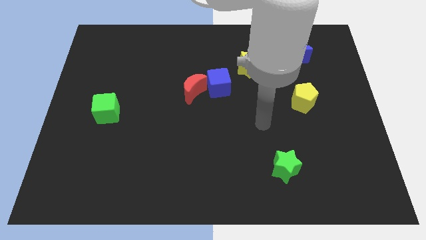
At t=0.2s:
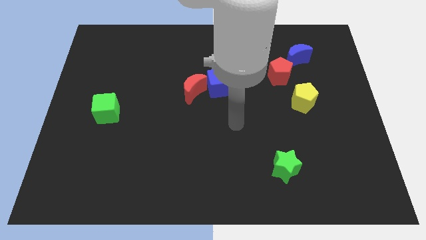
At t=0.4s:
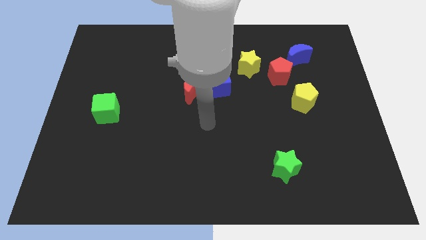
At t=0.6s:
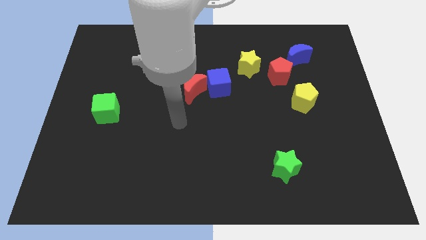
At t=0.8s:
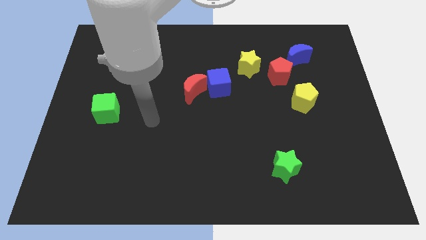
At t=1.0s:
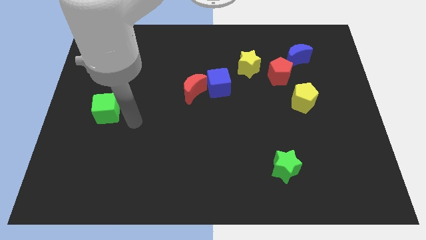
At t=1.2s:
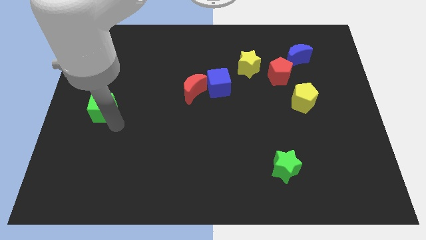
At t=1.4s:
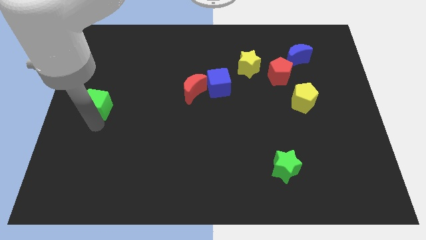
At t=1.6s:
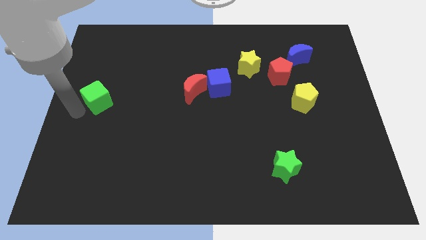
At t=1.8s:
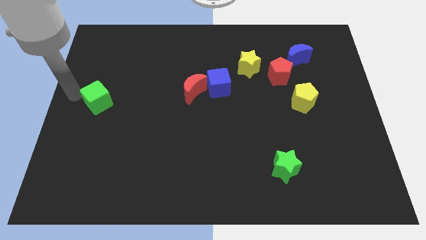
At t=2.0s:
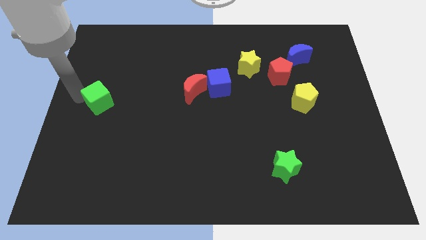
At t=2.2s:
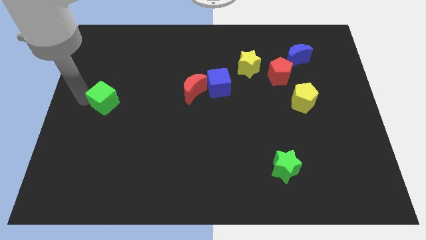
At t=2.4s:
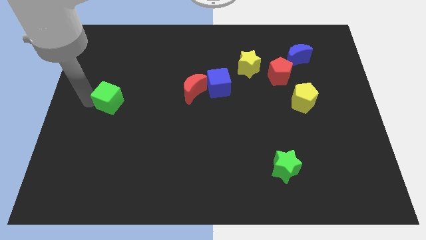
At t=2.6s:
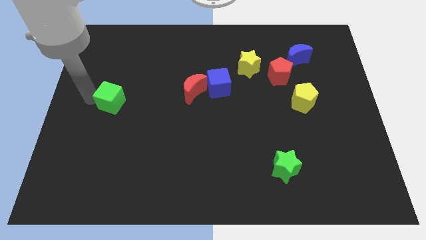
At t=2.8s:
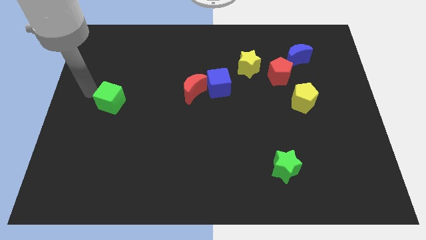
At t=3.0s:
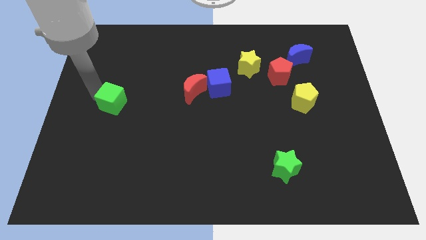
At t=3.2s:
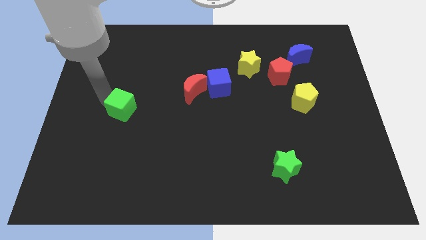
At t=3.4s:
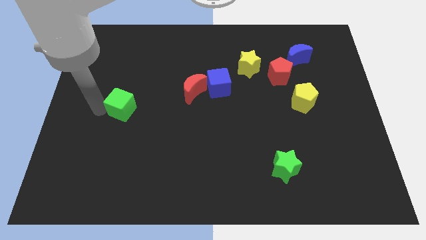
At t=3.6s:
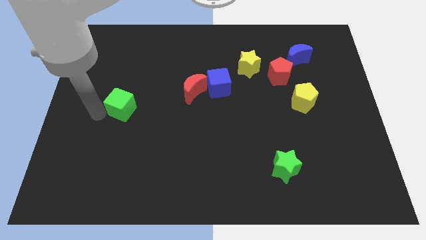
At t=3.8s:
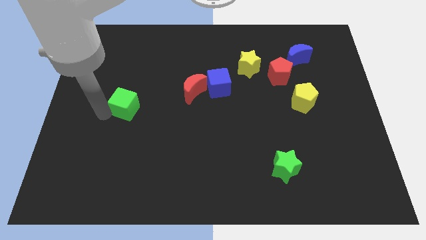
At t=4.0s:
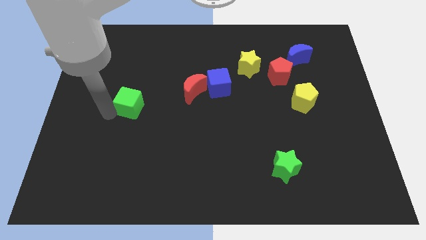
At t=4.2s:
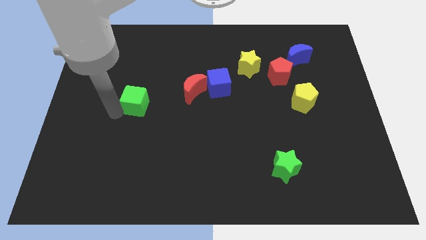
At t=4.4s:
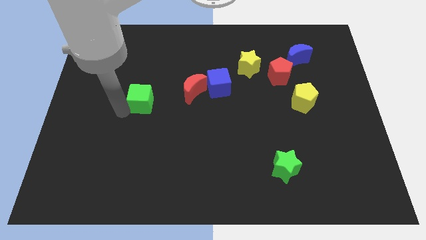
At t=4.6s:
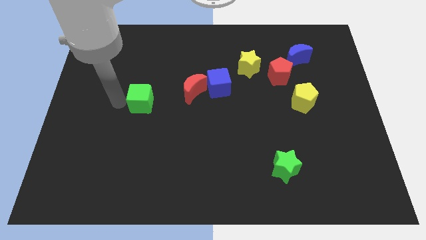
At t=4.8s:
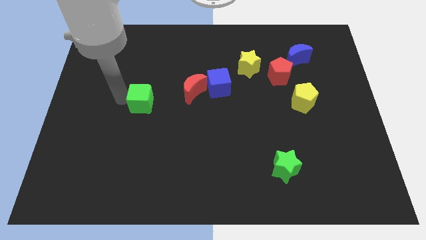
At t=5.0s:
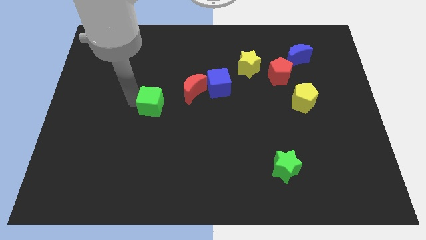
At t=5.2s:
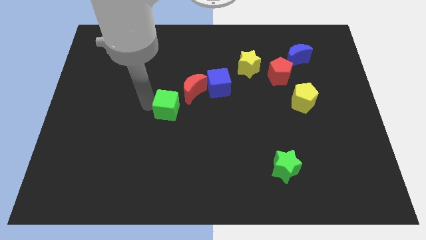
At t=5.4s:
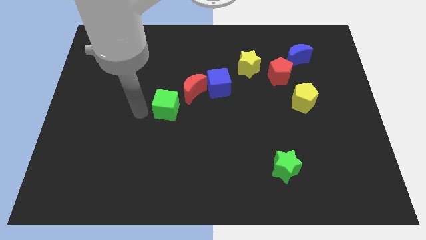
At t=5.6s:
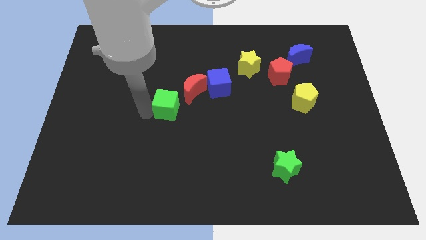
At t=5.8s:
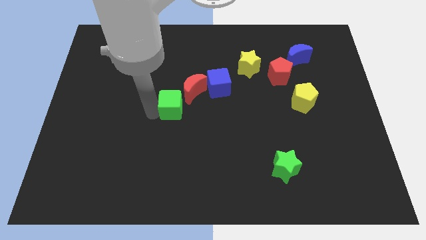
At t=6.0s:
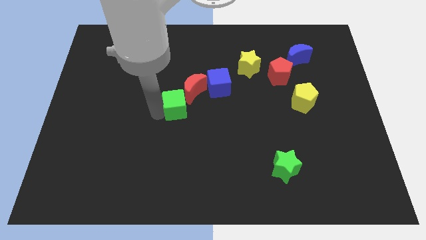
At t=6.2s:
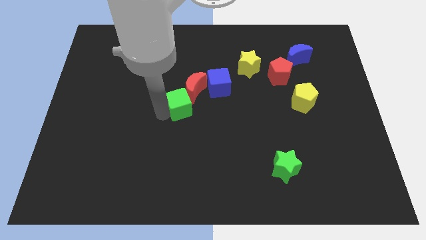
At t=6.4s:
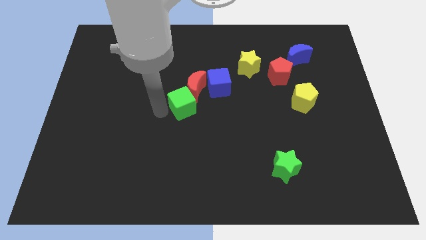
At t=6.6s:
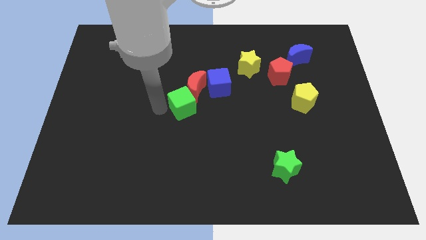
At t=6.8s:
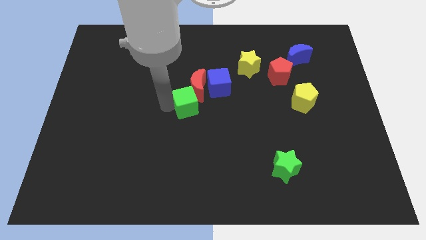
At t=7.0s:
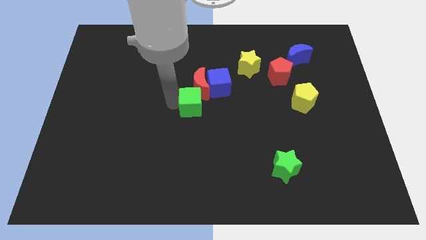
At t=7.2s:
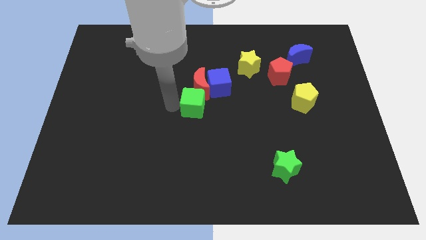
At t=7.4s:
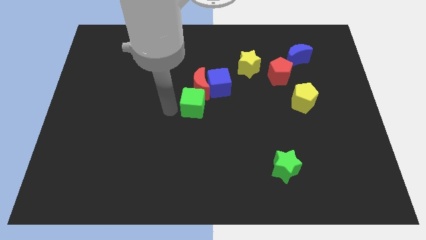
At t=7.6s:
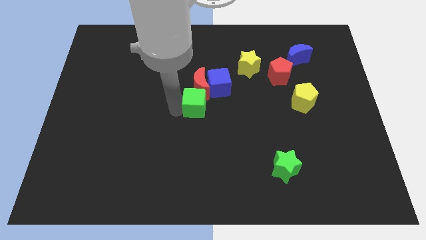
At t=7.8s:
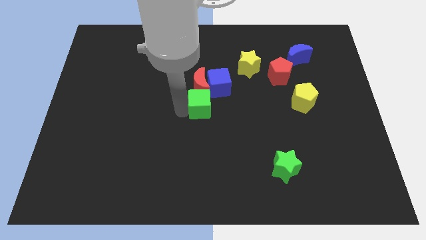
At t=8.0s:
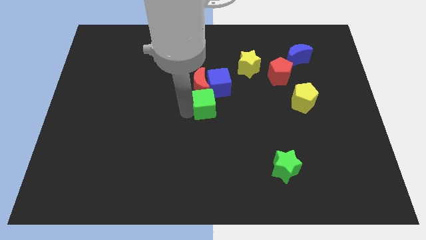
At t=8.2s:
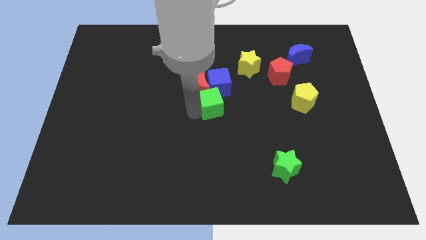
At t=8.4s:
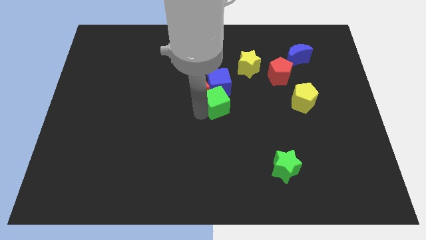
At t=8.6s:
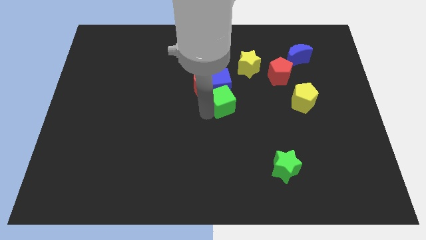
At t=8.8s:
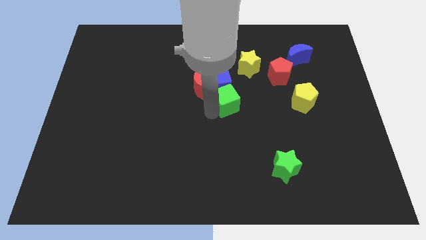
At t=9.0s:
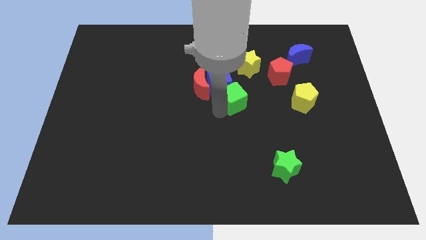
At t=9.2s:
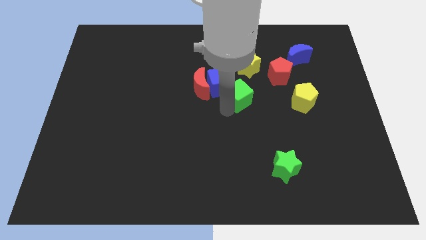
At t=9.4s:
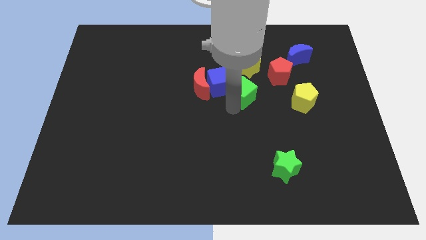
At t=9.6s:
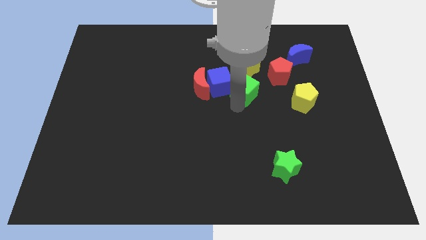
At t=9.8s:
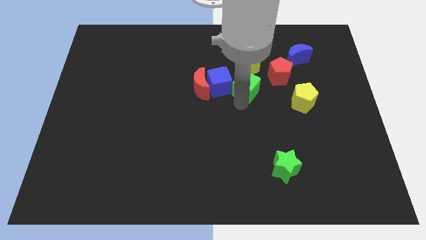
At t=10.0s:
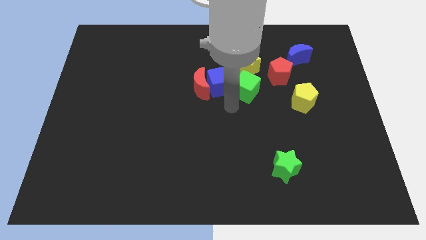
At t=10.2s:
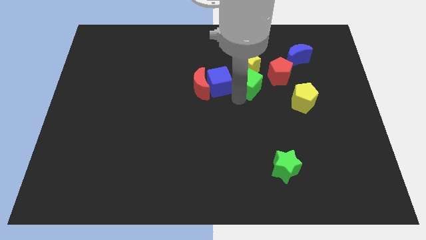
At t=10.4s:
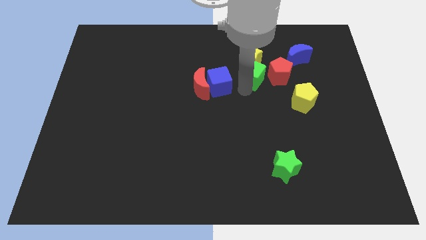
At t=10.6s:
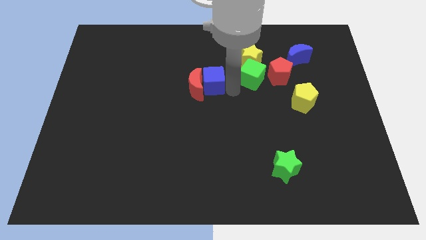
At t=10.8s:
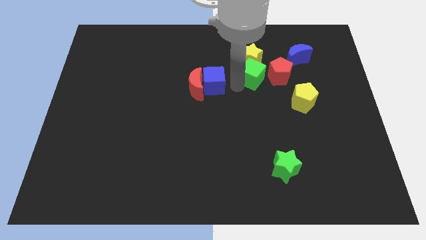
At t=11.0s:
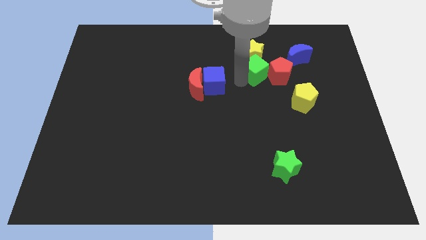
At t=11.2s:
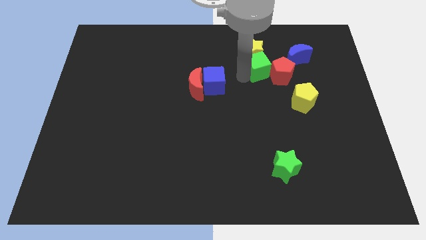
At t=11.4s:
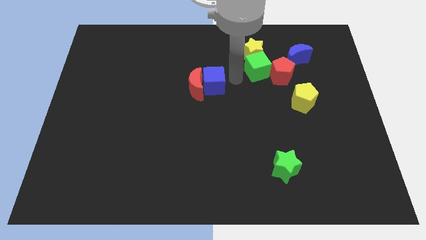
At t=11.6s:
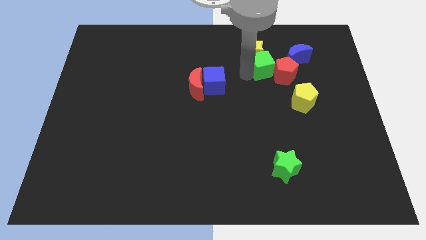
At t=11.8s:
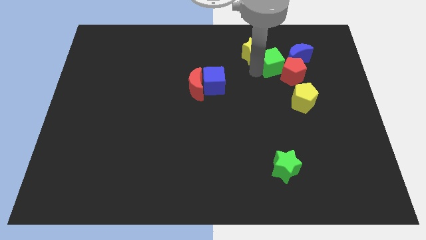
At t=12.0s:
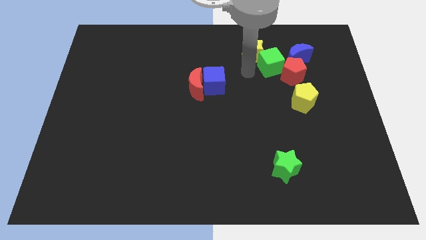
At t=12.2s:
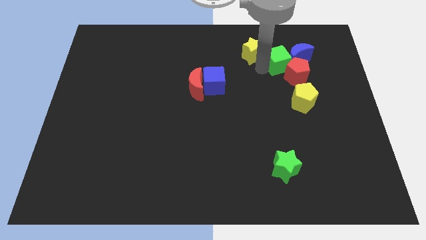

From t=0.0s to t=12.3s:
put the green cube towards the blue moon

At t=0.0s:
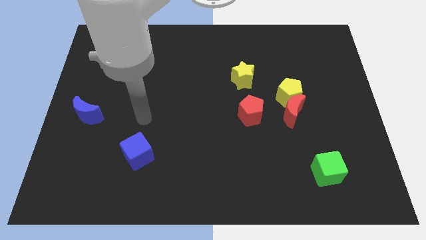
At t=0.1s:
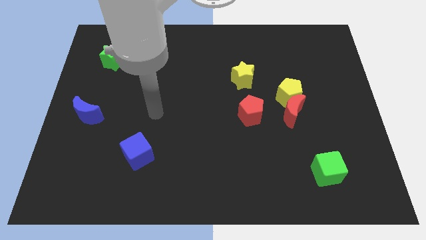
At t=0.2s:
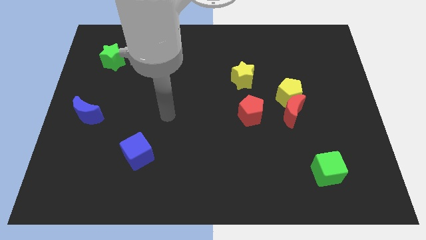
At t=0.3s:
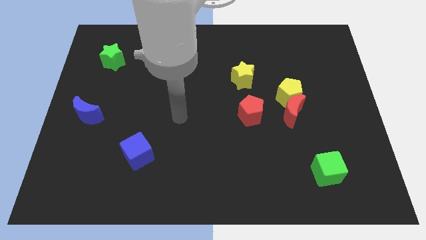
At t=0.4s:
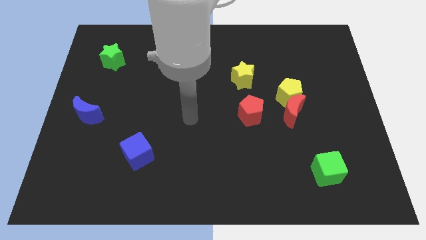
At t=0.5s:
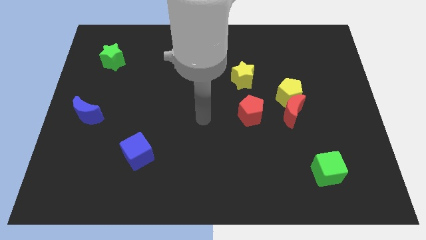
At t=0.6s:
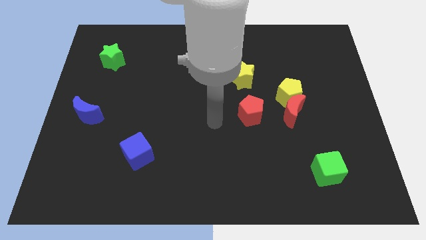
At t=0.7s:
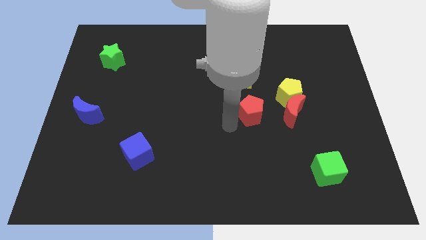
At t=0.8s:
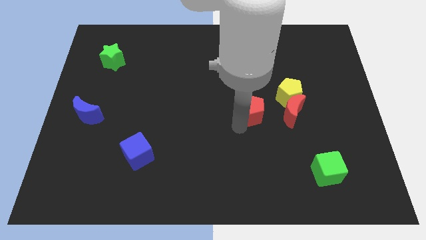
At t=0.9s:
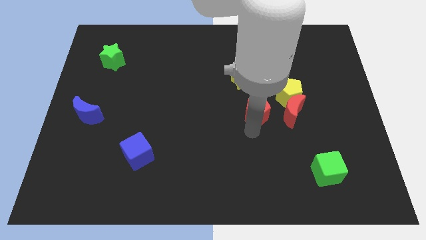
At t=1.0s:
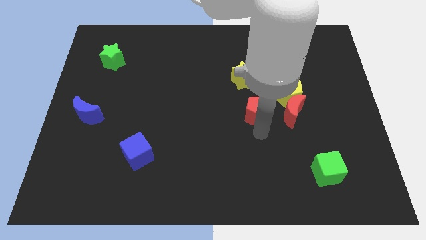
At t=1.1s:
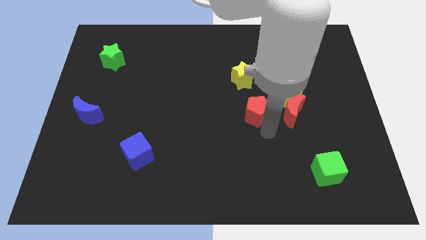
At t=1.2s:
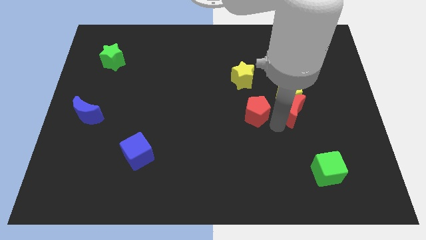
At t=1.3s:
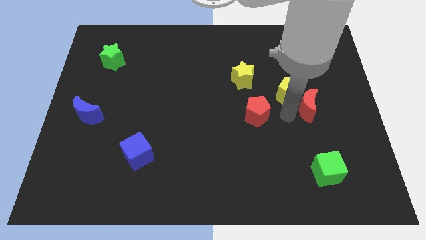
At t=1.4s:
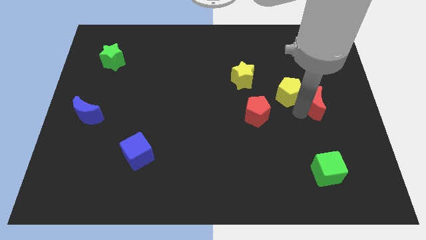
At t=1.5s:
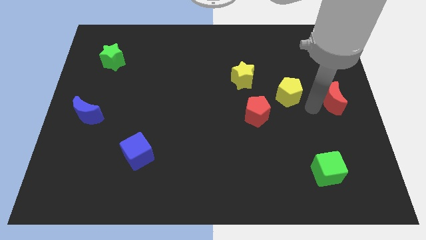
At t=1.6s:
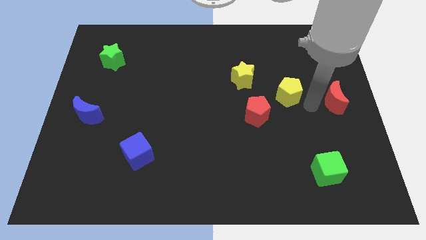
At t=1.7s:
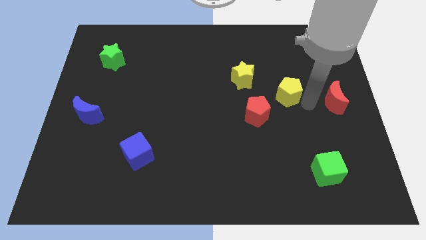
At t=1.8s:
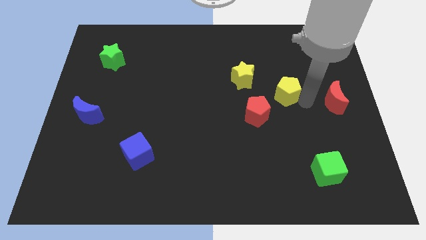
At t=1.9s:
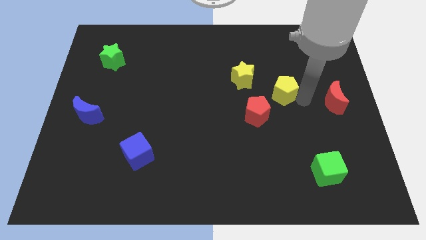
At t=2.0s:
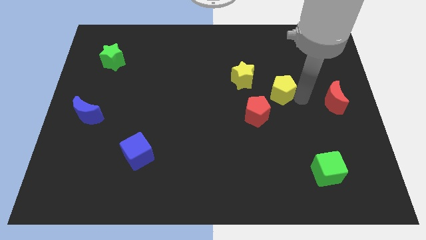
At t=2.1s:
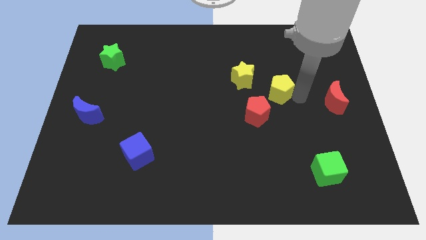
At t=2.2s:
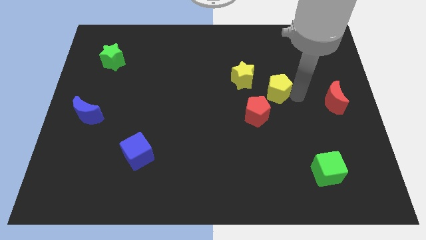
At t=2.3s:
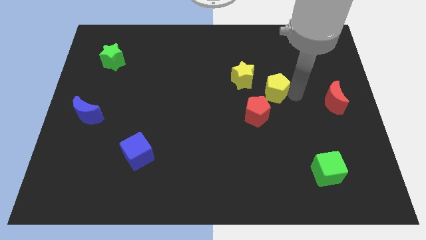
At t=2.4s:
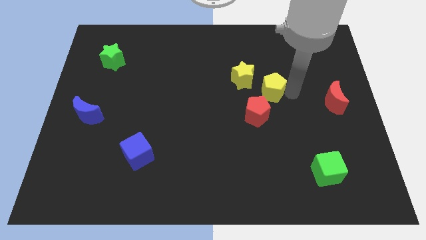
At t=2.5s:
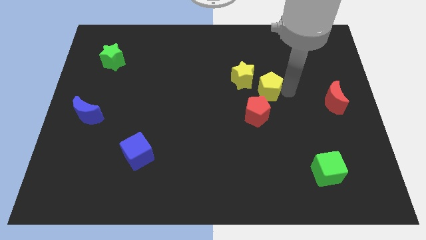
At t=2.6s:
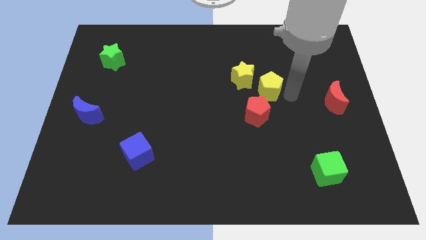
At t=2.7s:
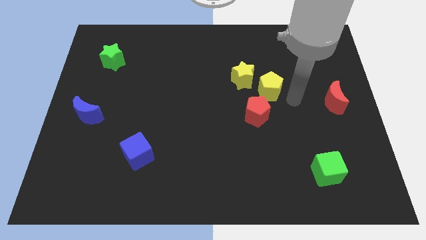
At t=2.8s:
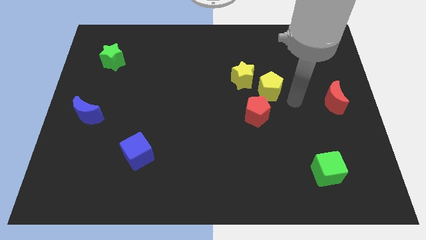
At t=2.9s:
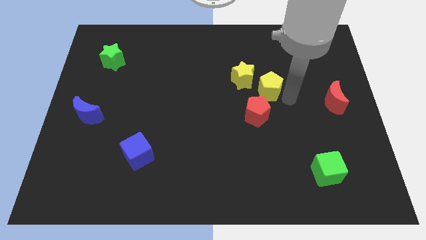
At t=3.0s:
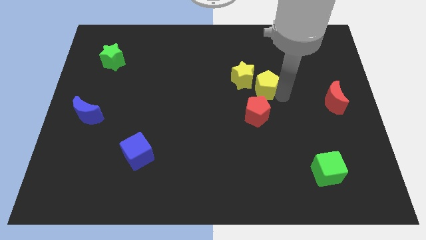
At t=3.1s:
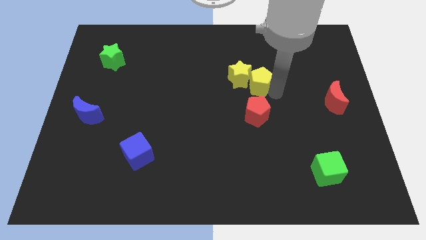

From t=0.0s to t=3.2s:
move the yellow pentagon towards the yellow star
